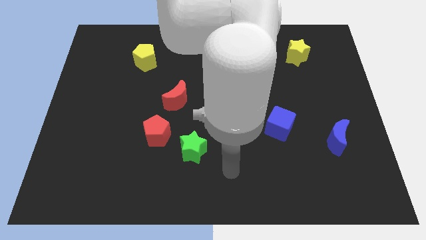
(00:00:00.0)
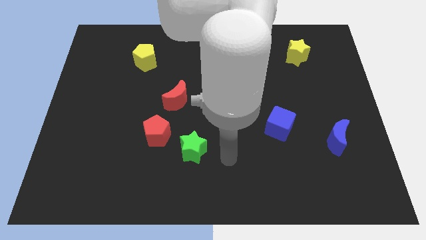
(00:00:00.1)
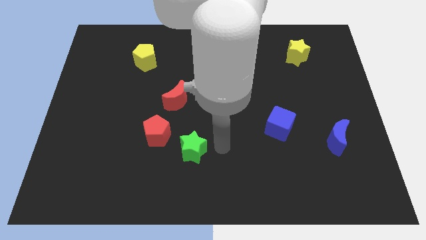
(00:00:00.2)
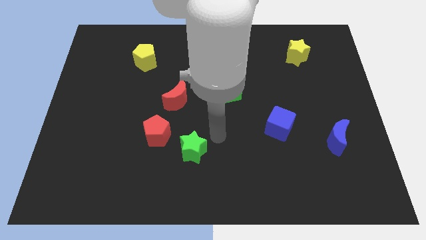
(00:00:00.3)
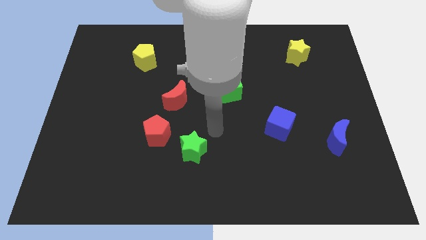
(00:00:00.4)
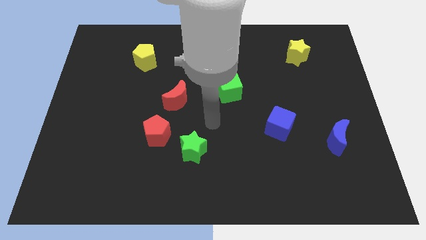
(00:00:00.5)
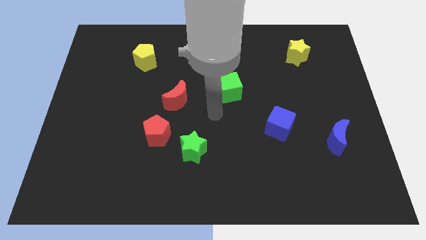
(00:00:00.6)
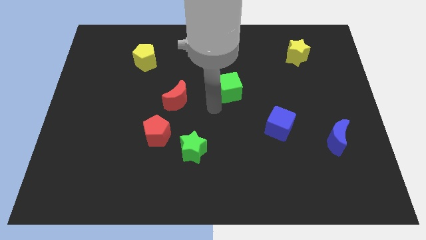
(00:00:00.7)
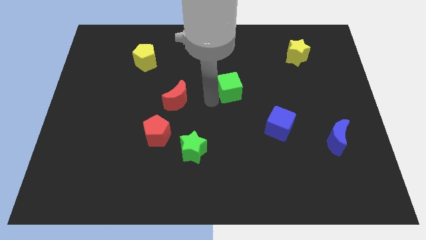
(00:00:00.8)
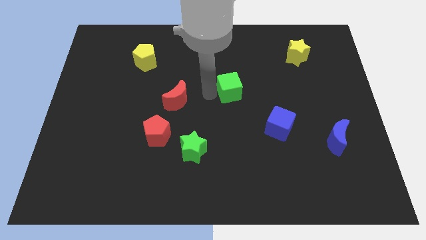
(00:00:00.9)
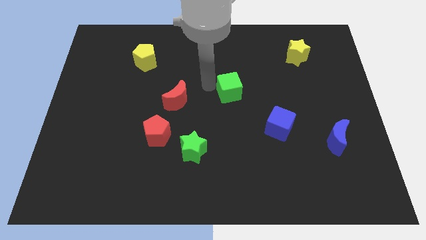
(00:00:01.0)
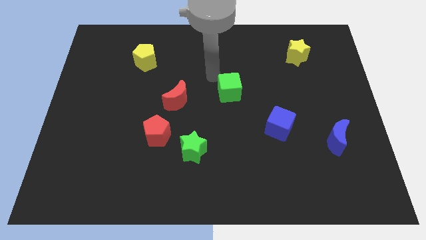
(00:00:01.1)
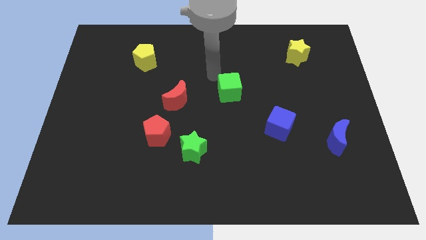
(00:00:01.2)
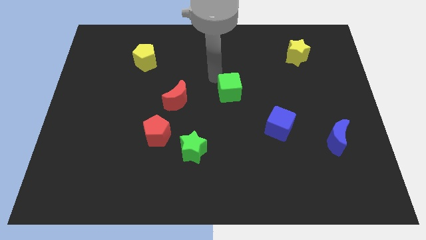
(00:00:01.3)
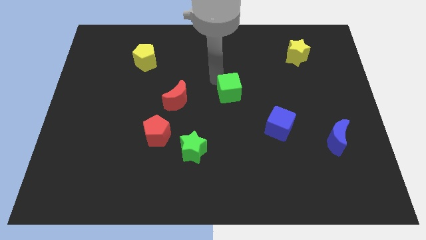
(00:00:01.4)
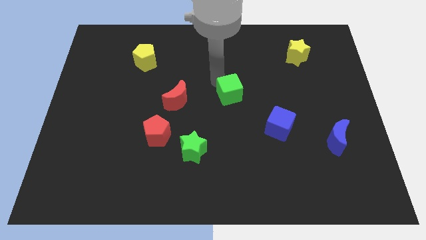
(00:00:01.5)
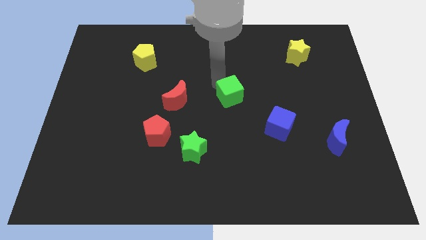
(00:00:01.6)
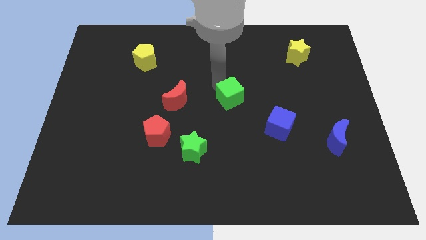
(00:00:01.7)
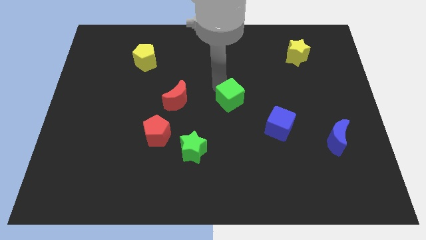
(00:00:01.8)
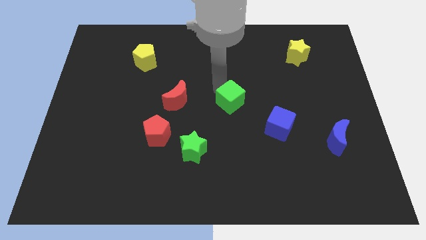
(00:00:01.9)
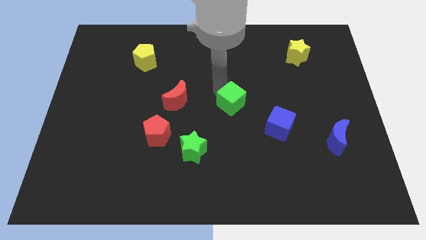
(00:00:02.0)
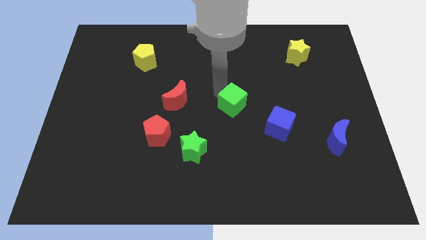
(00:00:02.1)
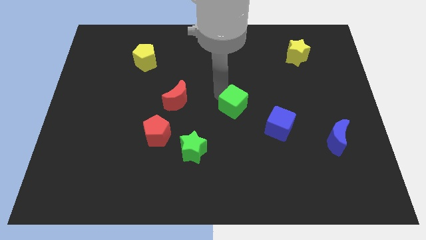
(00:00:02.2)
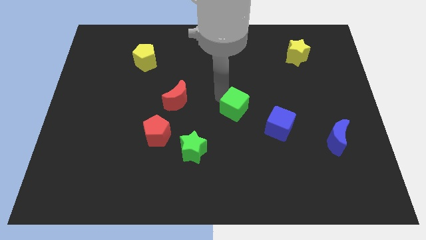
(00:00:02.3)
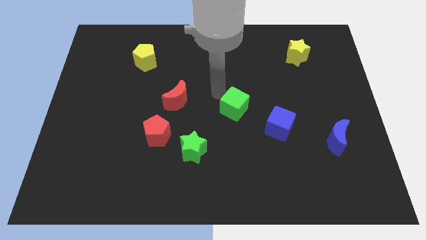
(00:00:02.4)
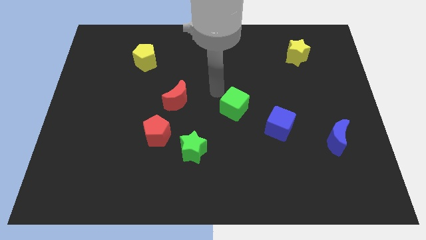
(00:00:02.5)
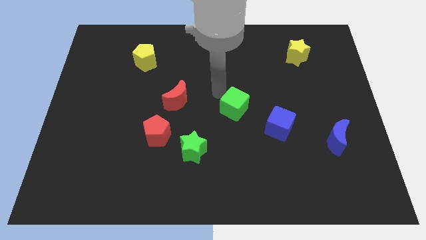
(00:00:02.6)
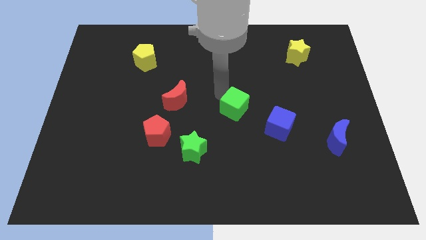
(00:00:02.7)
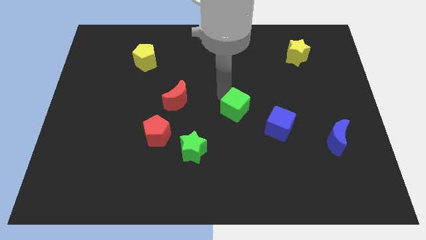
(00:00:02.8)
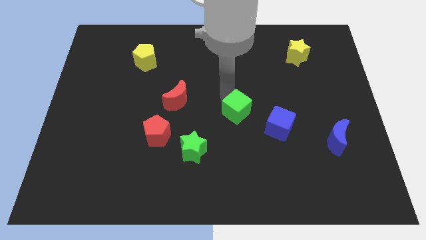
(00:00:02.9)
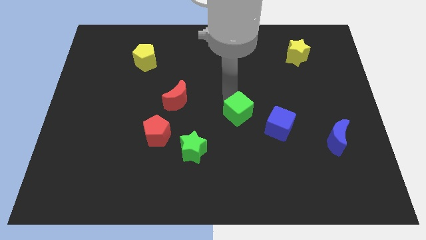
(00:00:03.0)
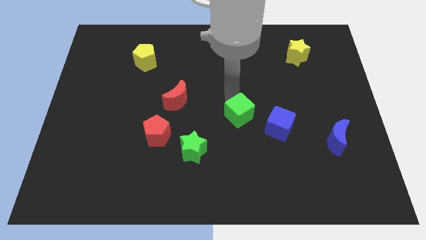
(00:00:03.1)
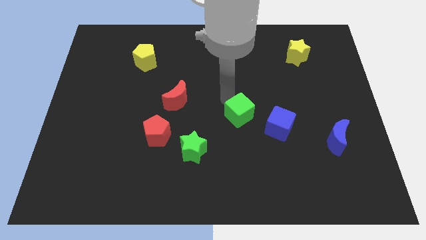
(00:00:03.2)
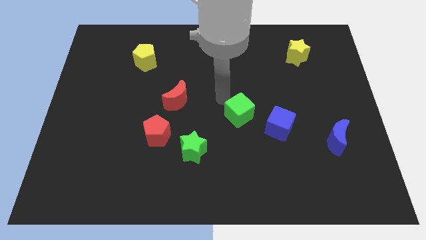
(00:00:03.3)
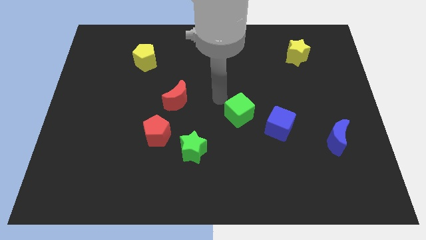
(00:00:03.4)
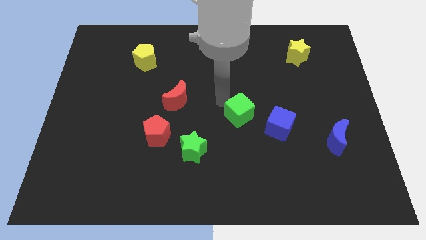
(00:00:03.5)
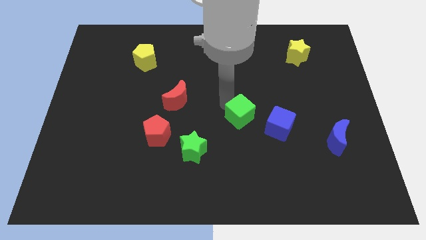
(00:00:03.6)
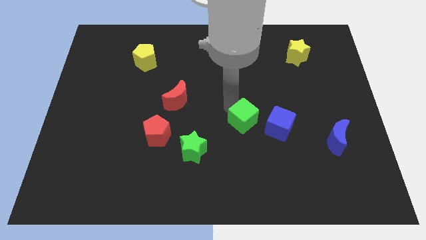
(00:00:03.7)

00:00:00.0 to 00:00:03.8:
slide the green cube down and to the right slightly

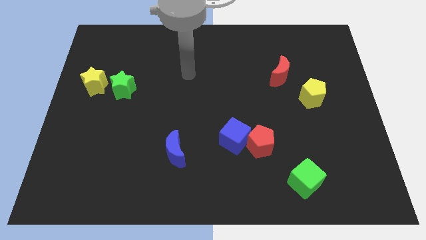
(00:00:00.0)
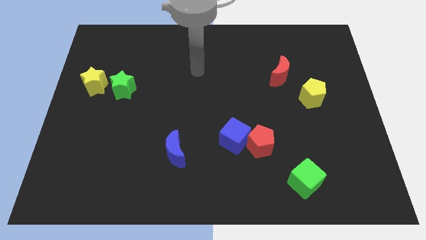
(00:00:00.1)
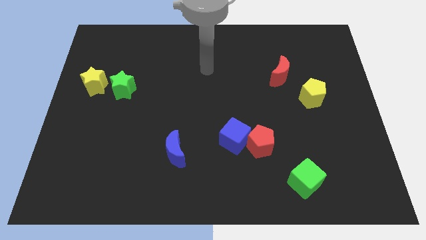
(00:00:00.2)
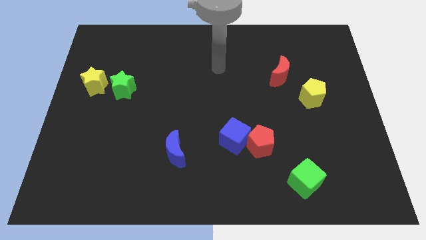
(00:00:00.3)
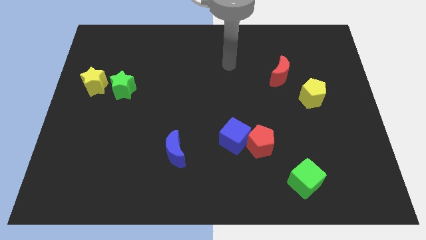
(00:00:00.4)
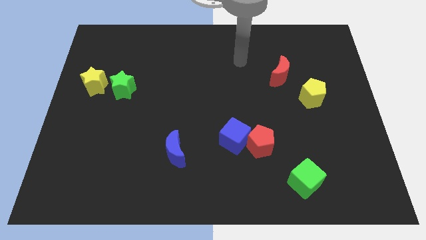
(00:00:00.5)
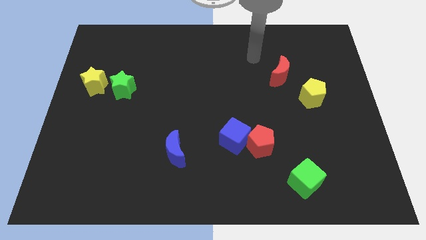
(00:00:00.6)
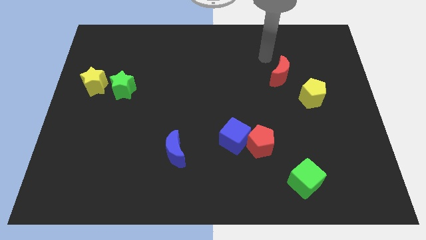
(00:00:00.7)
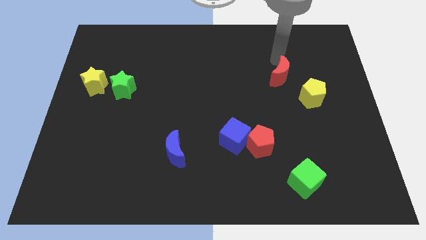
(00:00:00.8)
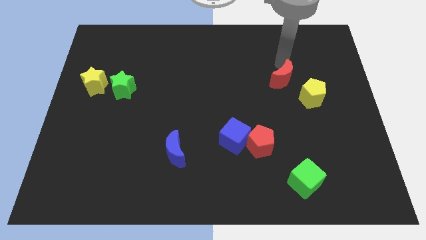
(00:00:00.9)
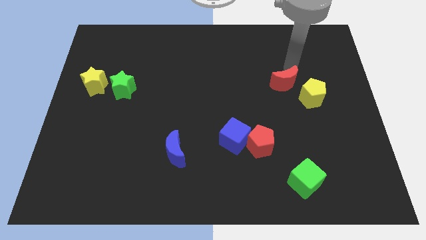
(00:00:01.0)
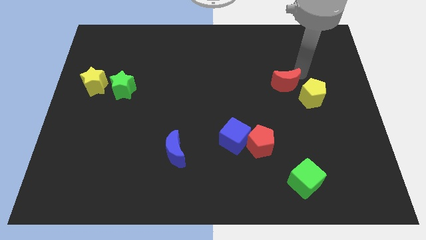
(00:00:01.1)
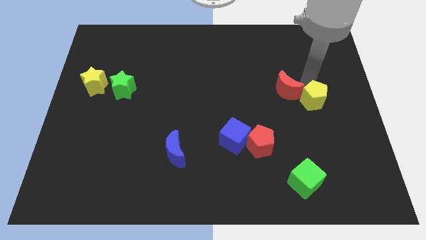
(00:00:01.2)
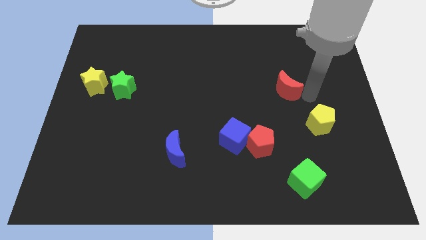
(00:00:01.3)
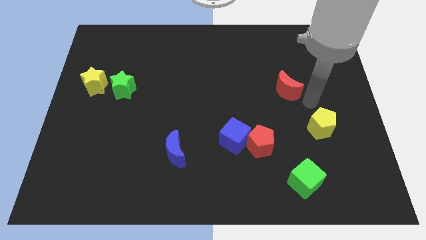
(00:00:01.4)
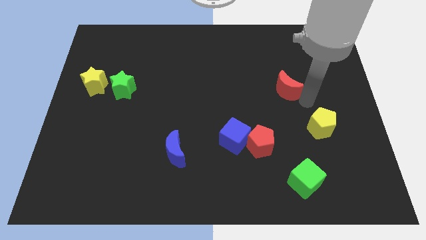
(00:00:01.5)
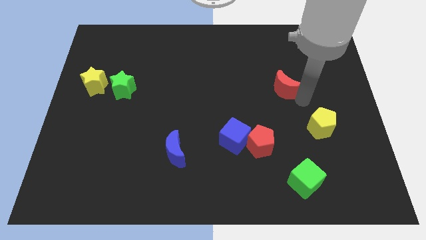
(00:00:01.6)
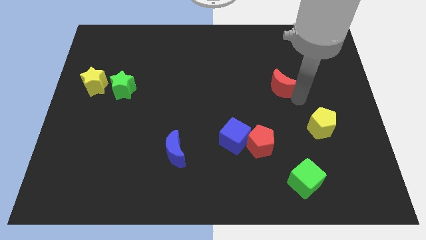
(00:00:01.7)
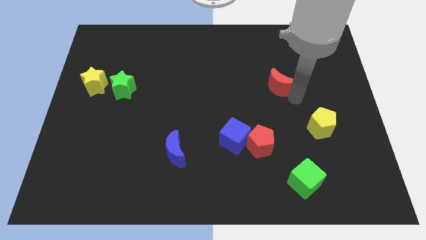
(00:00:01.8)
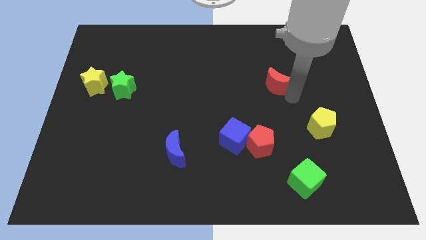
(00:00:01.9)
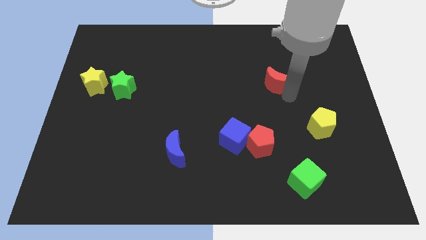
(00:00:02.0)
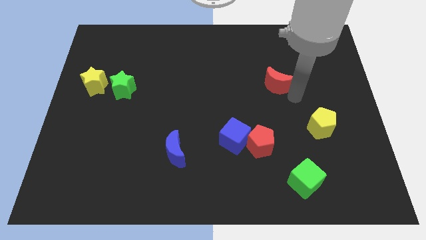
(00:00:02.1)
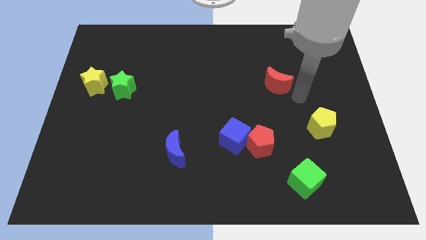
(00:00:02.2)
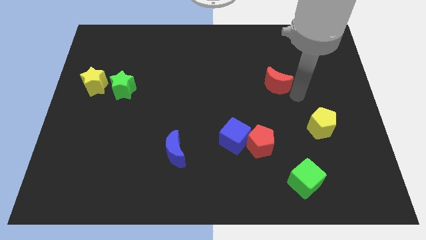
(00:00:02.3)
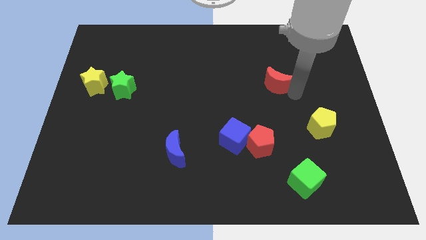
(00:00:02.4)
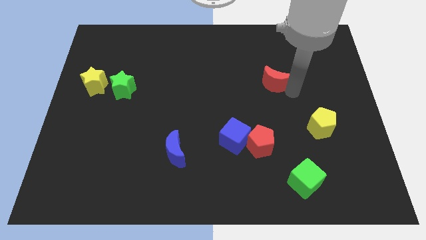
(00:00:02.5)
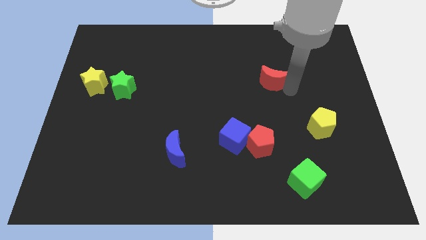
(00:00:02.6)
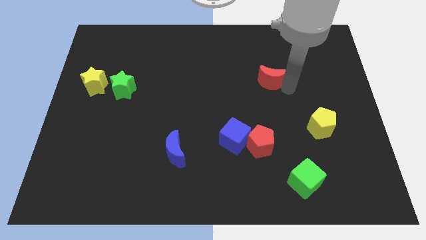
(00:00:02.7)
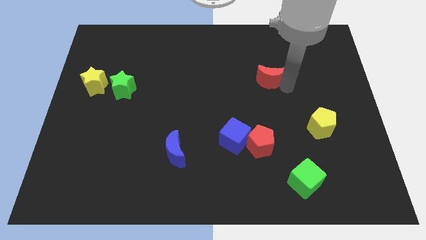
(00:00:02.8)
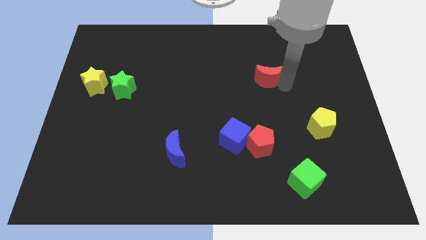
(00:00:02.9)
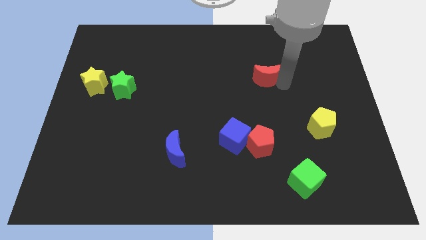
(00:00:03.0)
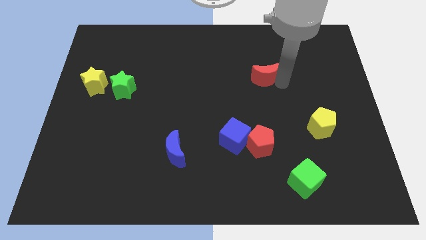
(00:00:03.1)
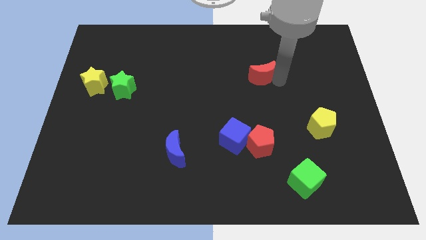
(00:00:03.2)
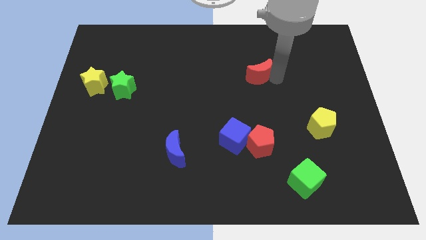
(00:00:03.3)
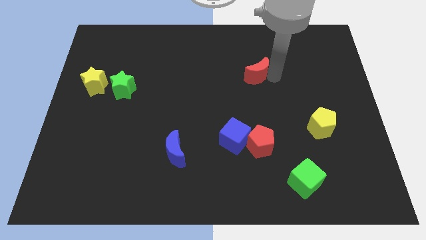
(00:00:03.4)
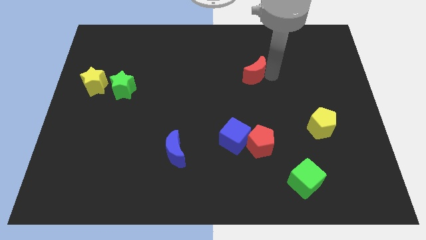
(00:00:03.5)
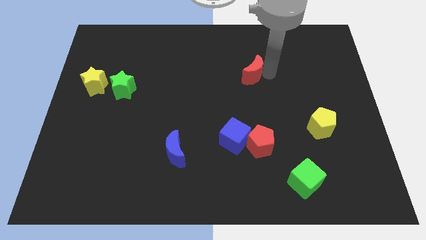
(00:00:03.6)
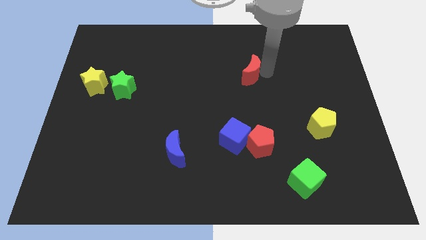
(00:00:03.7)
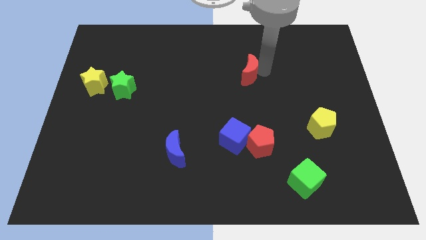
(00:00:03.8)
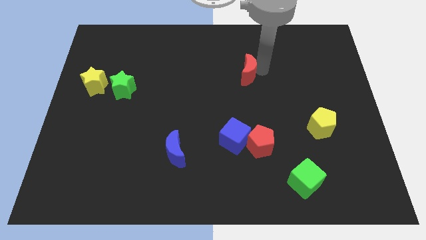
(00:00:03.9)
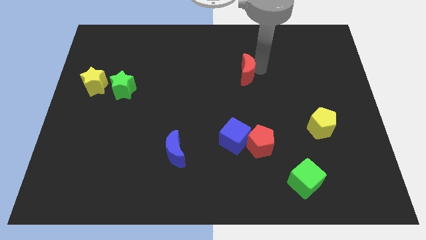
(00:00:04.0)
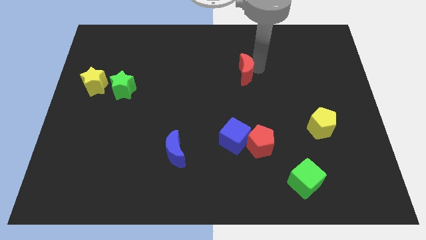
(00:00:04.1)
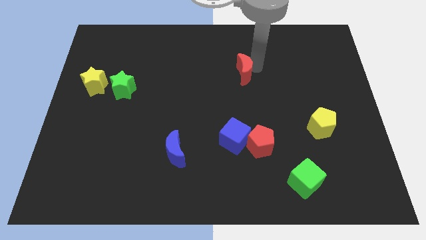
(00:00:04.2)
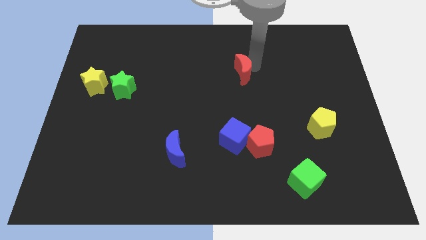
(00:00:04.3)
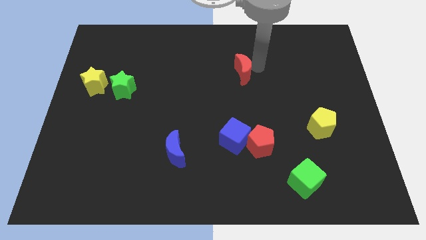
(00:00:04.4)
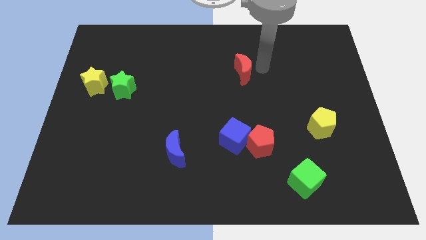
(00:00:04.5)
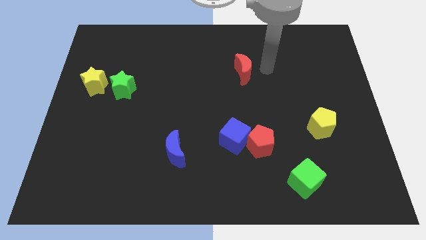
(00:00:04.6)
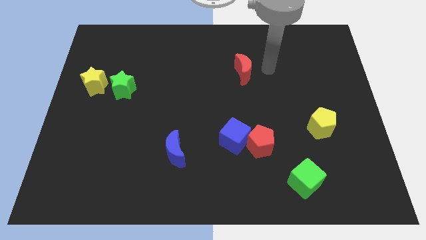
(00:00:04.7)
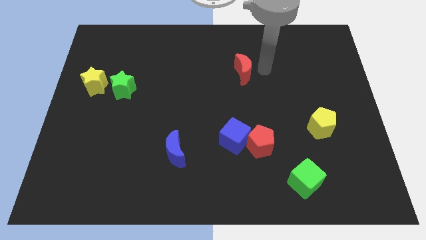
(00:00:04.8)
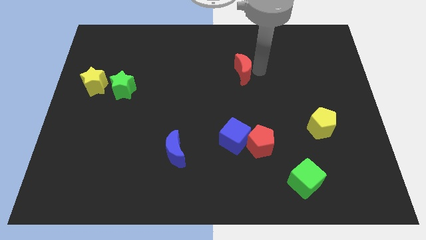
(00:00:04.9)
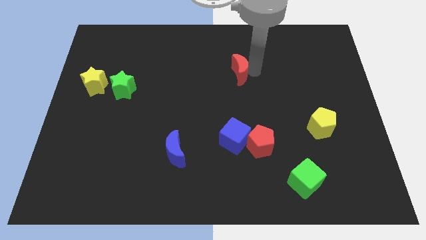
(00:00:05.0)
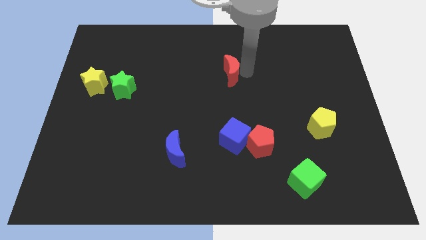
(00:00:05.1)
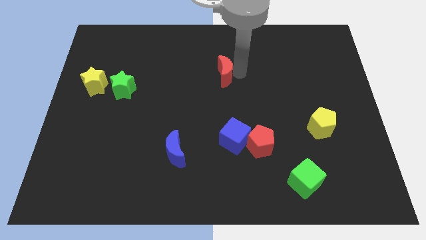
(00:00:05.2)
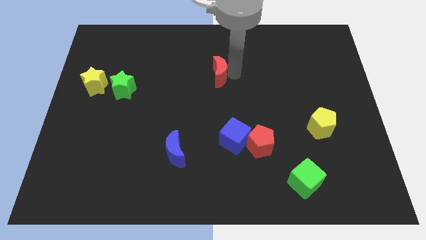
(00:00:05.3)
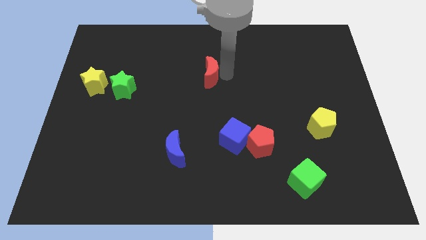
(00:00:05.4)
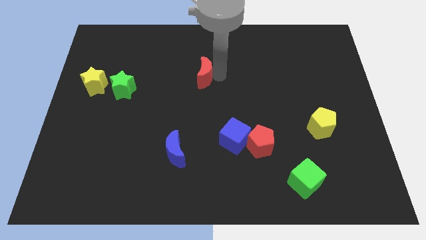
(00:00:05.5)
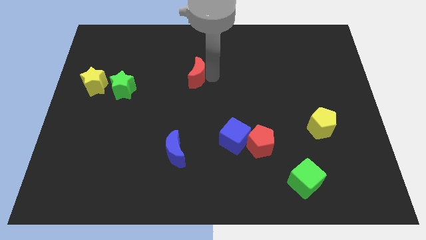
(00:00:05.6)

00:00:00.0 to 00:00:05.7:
move the red moon to the left
